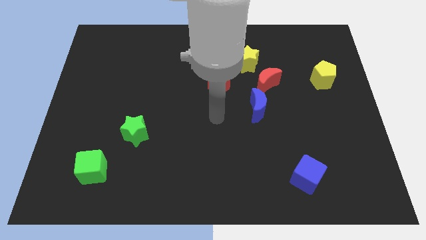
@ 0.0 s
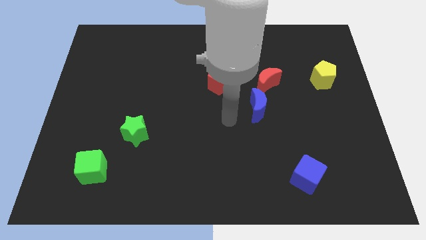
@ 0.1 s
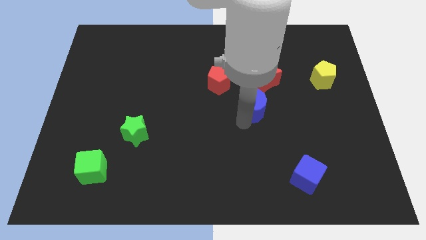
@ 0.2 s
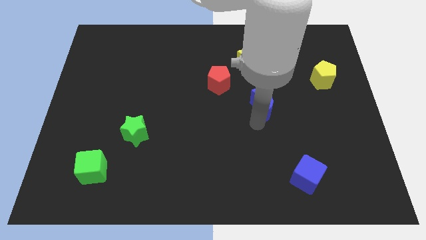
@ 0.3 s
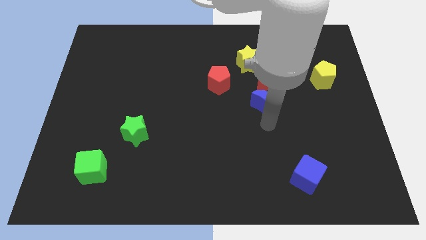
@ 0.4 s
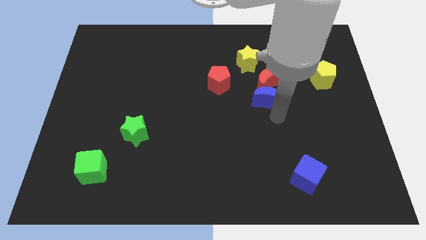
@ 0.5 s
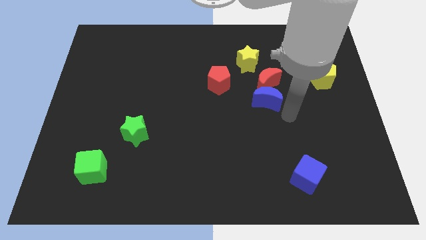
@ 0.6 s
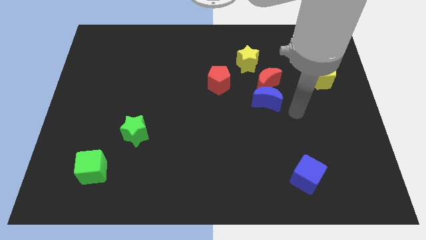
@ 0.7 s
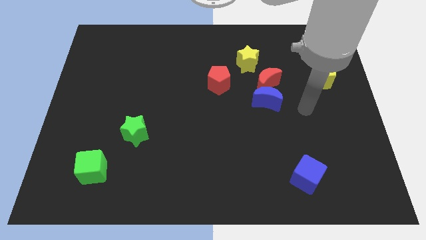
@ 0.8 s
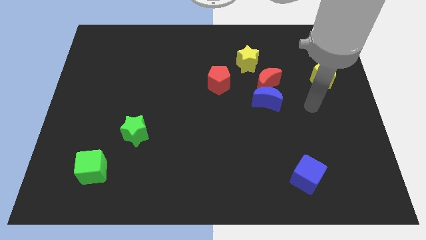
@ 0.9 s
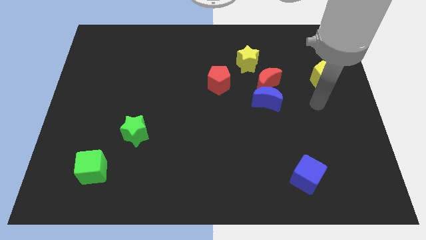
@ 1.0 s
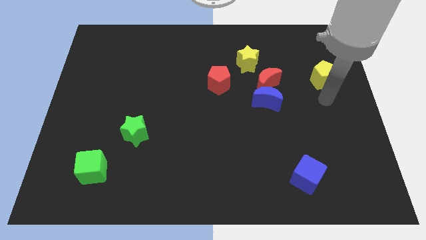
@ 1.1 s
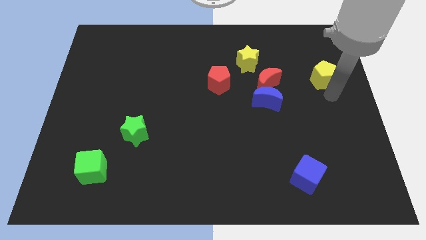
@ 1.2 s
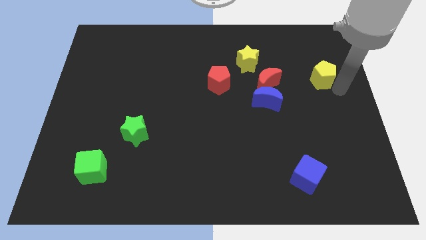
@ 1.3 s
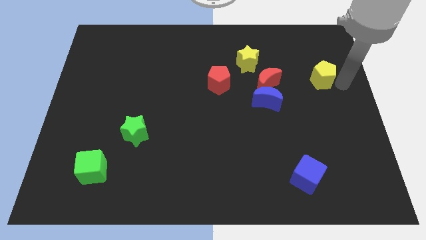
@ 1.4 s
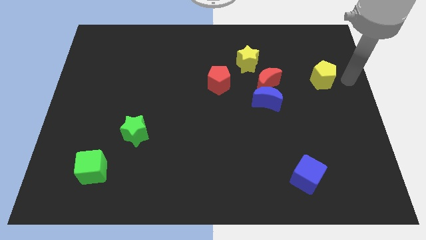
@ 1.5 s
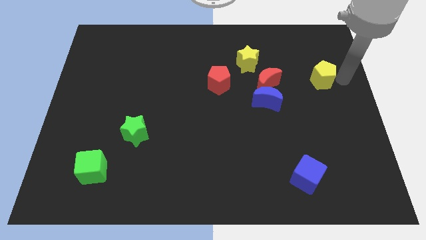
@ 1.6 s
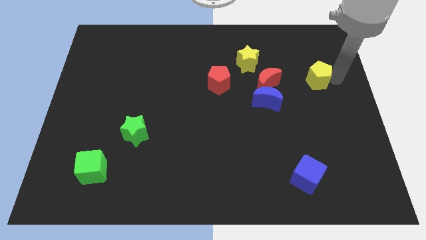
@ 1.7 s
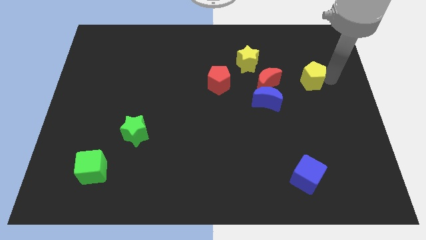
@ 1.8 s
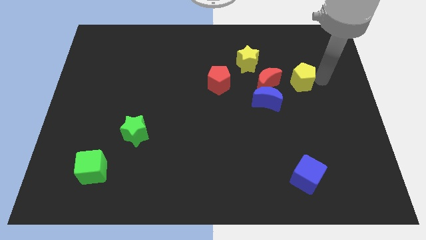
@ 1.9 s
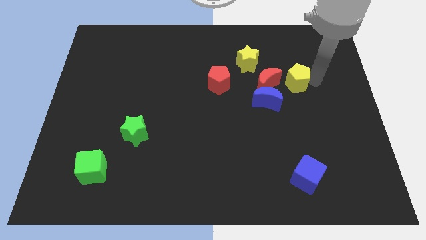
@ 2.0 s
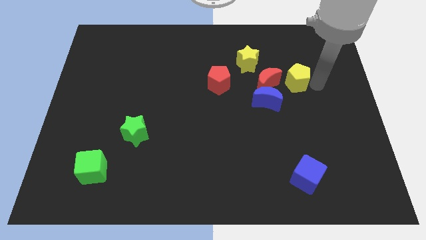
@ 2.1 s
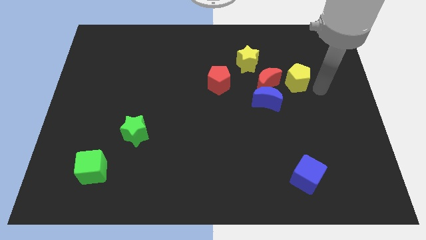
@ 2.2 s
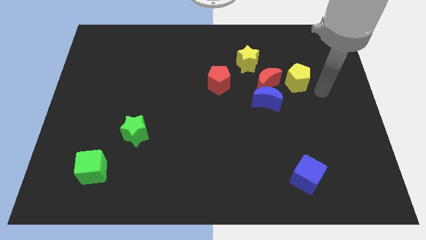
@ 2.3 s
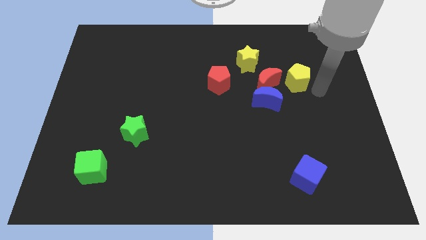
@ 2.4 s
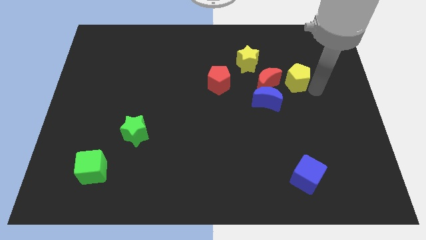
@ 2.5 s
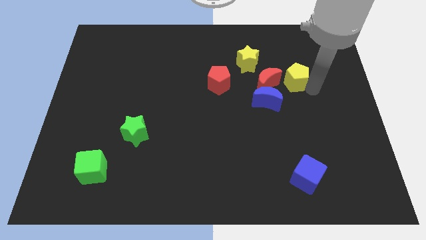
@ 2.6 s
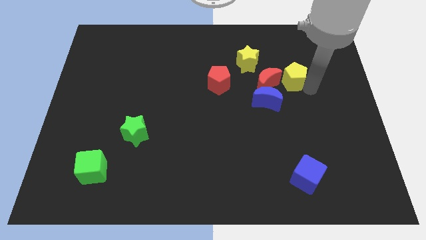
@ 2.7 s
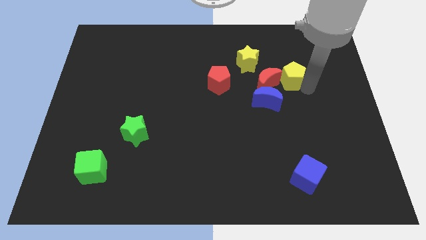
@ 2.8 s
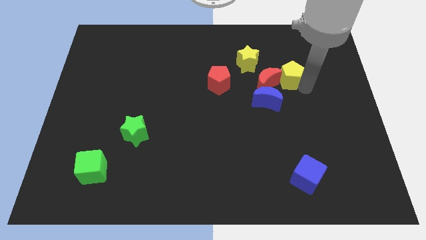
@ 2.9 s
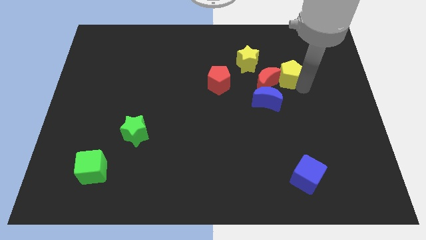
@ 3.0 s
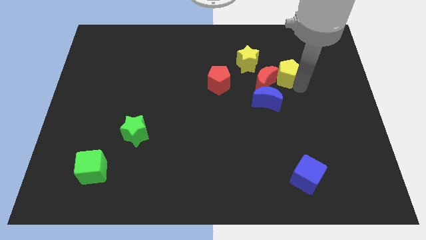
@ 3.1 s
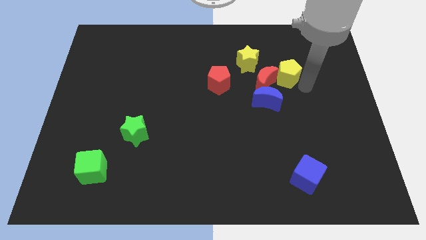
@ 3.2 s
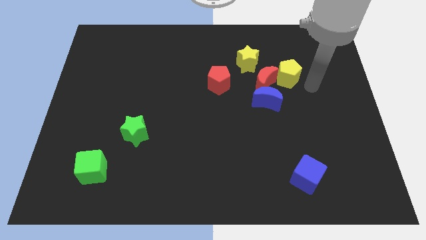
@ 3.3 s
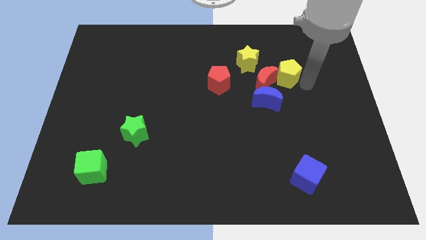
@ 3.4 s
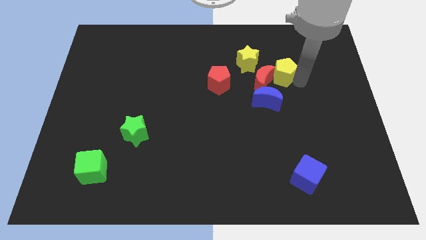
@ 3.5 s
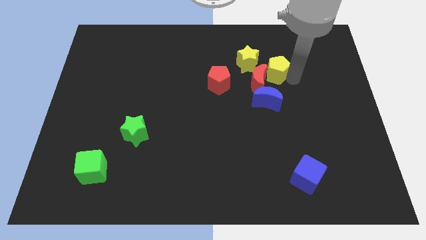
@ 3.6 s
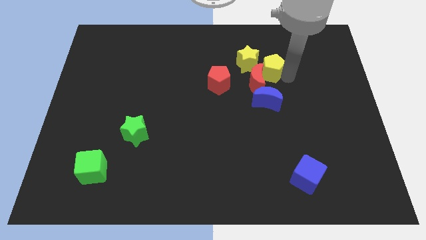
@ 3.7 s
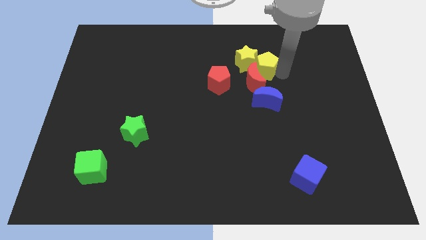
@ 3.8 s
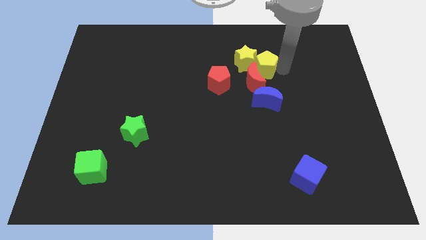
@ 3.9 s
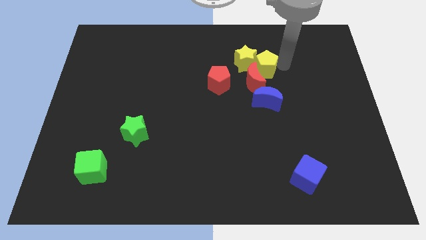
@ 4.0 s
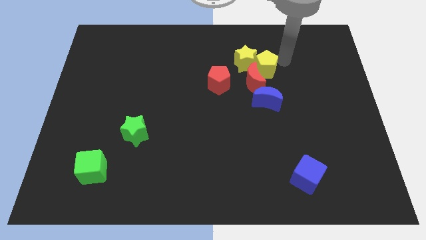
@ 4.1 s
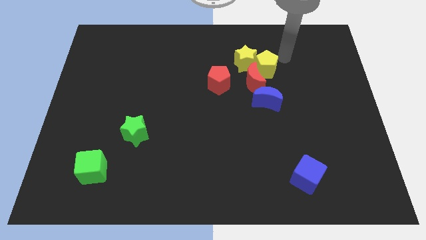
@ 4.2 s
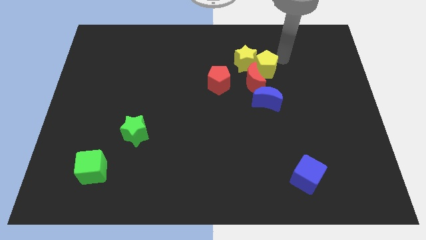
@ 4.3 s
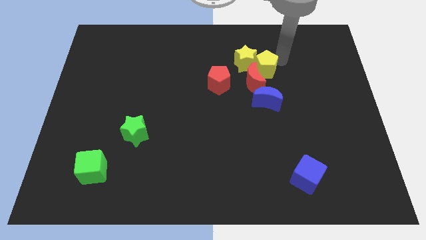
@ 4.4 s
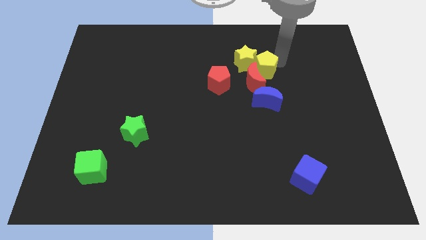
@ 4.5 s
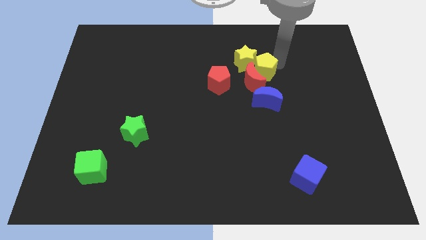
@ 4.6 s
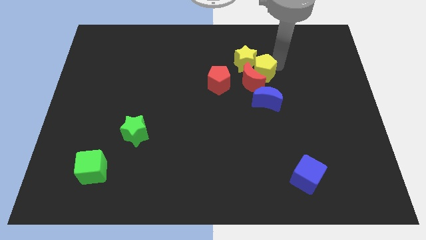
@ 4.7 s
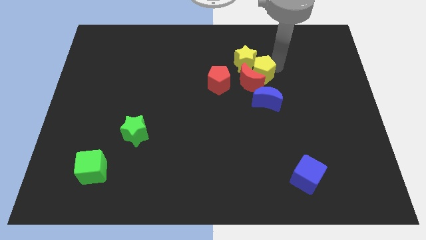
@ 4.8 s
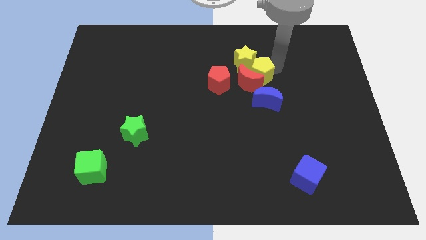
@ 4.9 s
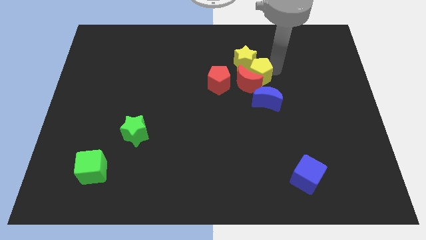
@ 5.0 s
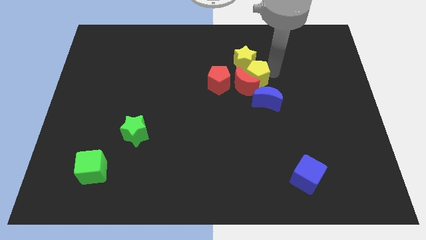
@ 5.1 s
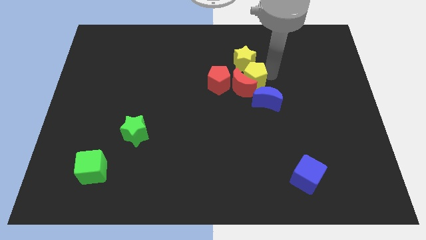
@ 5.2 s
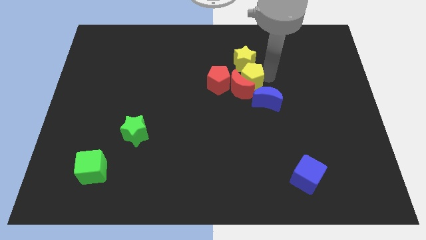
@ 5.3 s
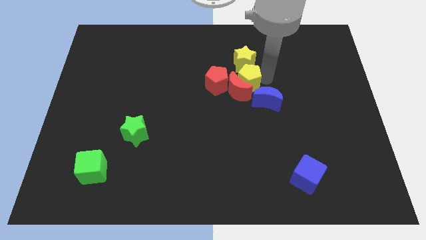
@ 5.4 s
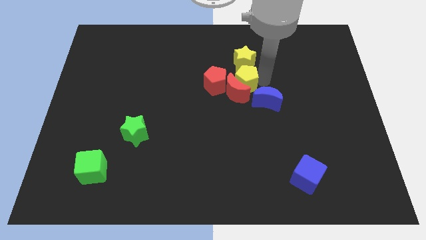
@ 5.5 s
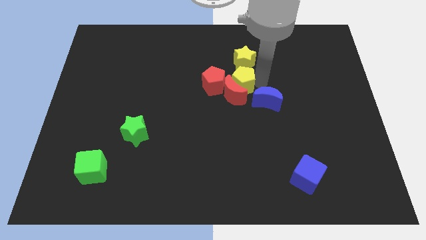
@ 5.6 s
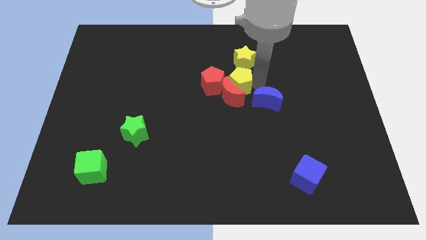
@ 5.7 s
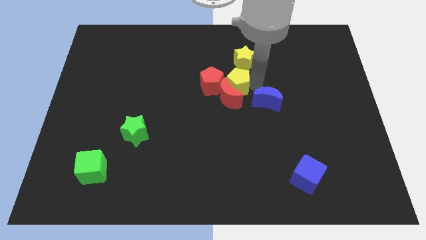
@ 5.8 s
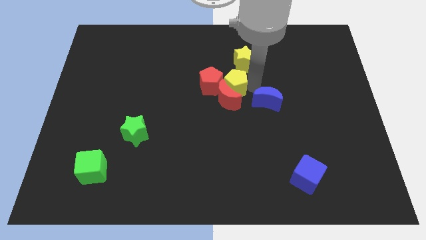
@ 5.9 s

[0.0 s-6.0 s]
slide the yellow pentagon towards the red pentagon

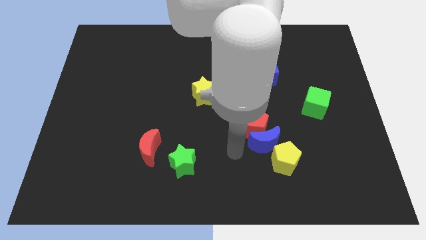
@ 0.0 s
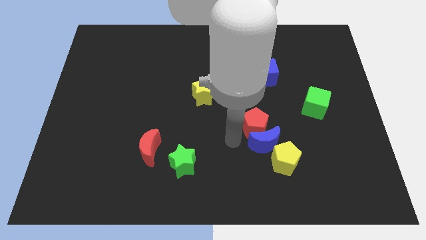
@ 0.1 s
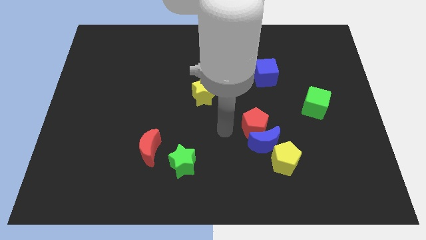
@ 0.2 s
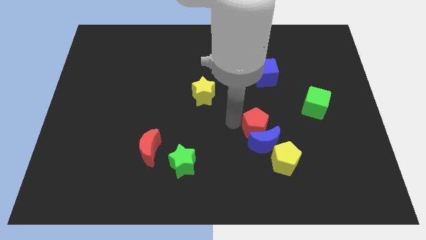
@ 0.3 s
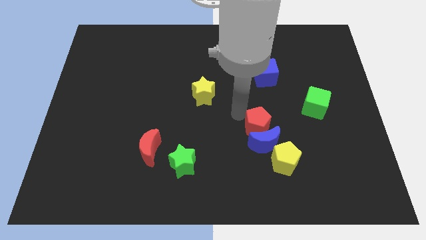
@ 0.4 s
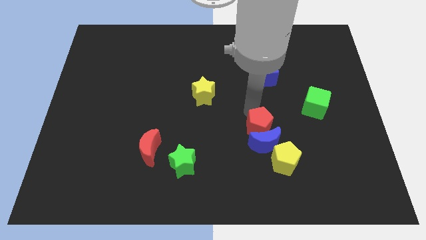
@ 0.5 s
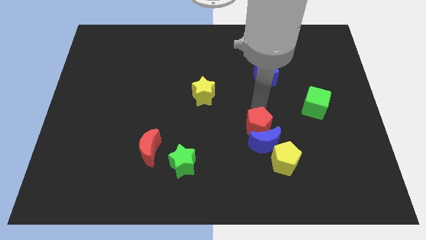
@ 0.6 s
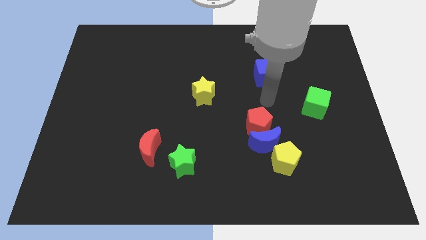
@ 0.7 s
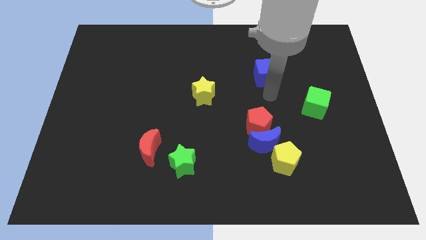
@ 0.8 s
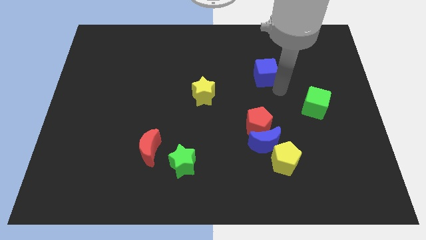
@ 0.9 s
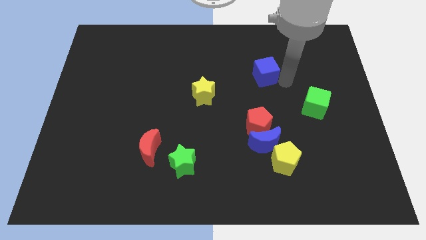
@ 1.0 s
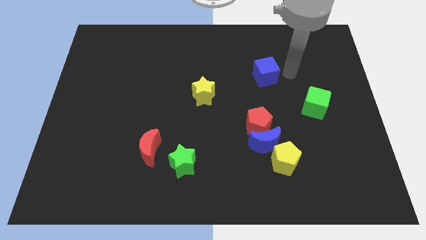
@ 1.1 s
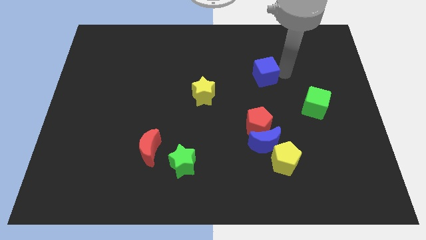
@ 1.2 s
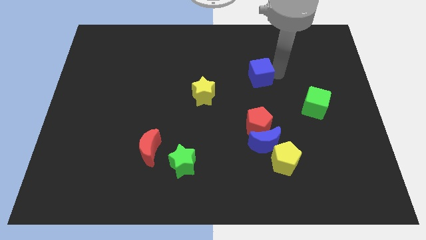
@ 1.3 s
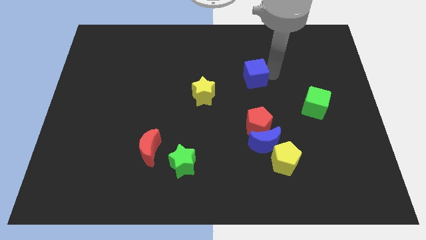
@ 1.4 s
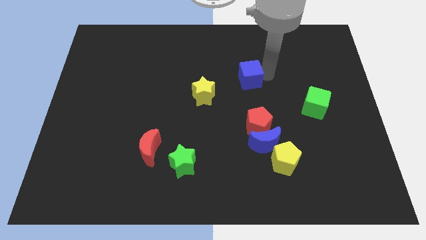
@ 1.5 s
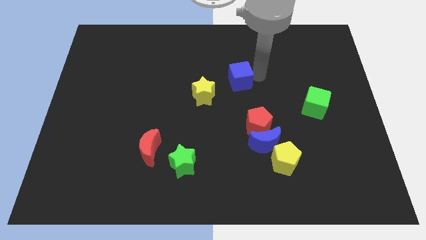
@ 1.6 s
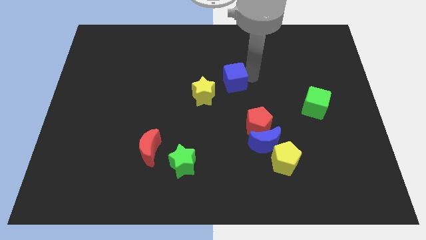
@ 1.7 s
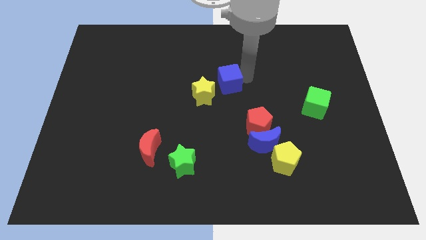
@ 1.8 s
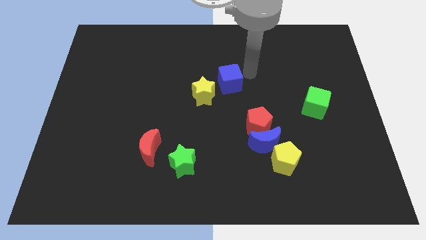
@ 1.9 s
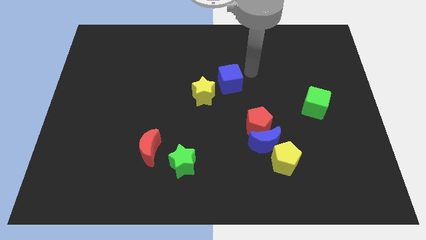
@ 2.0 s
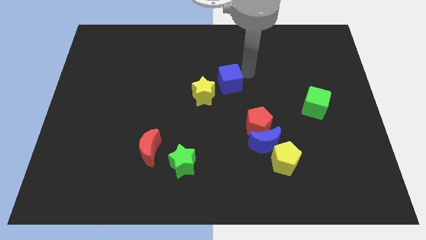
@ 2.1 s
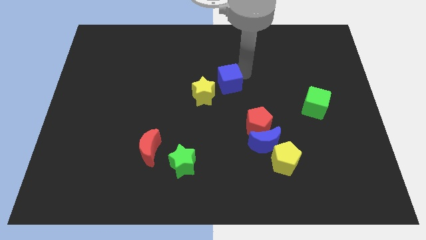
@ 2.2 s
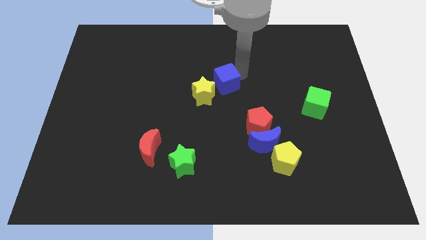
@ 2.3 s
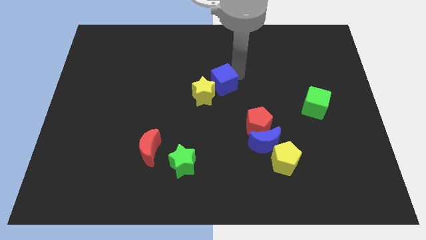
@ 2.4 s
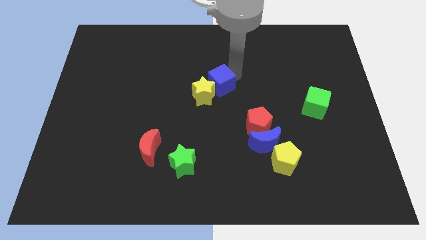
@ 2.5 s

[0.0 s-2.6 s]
push the blue cube close to the yellow star
